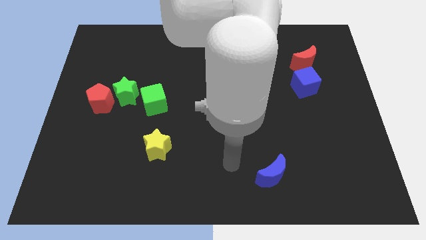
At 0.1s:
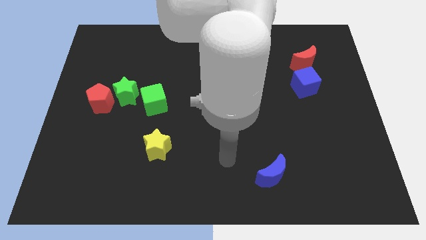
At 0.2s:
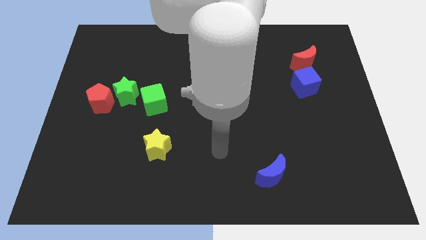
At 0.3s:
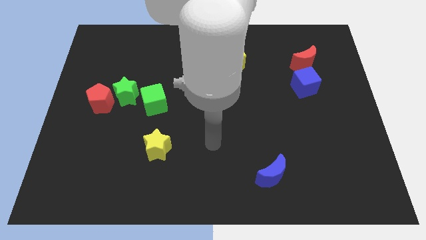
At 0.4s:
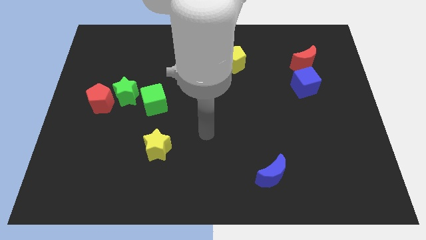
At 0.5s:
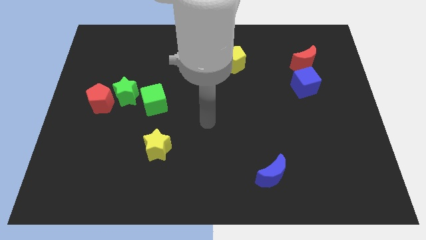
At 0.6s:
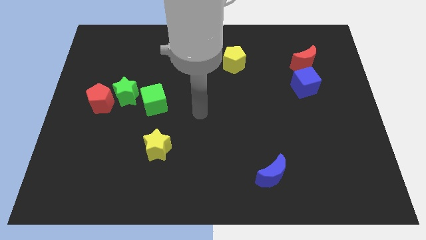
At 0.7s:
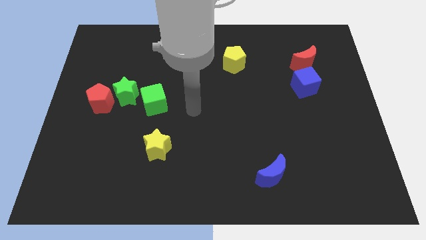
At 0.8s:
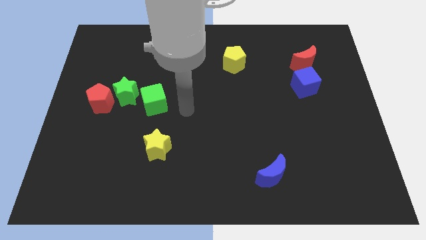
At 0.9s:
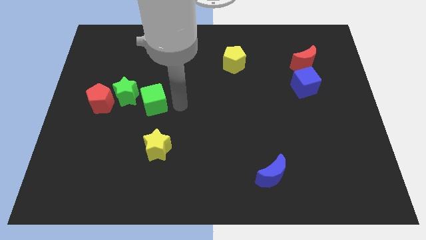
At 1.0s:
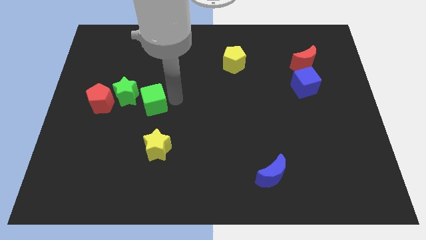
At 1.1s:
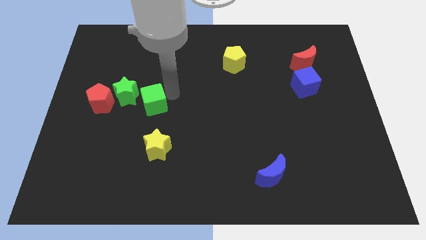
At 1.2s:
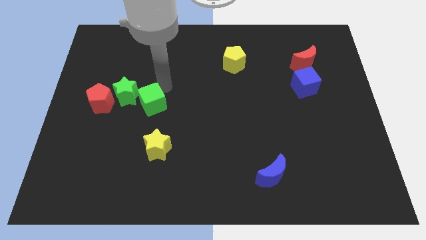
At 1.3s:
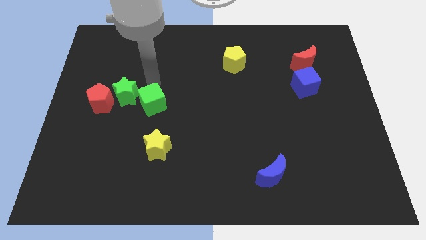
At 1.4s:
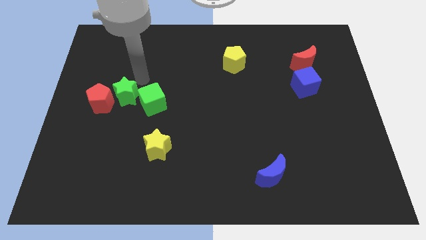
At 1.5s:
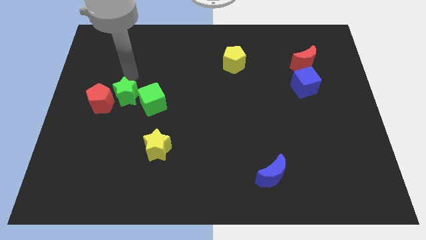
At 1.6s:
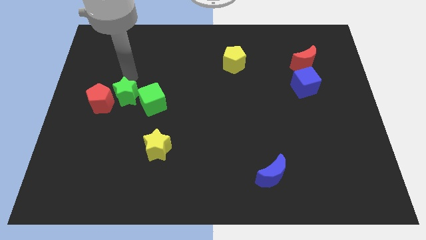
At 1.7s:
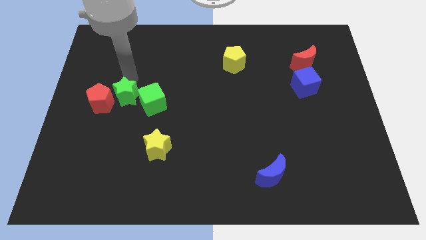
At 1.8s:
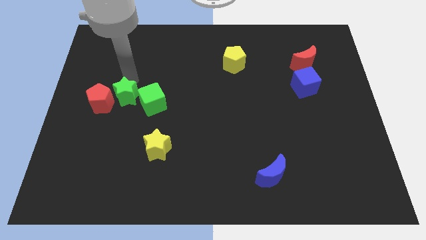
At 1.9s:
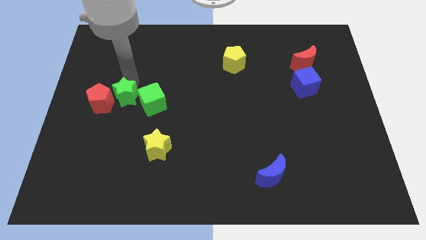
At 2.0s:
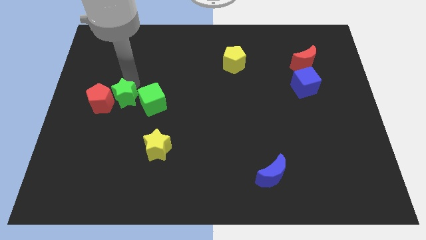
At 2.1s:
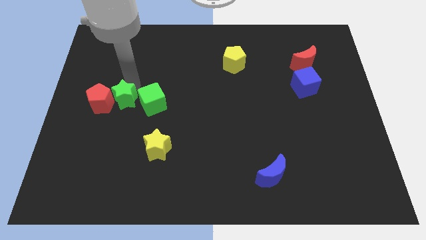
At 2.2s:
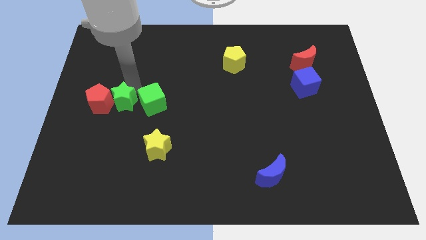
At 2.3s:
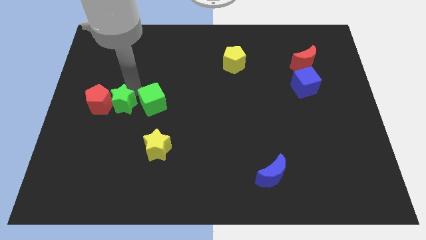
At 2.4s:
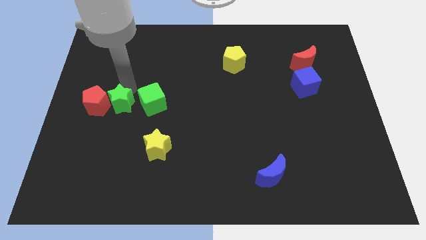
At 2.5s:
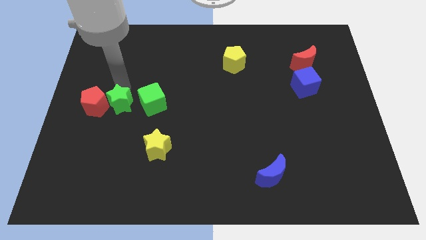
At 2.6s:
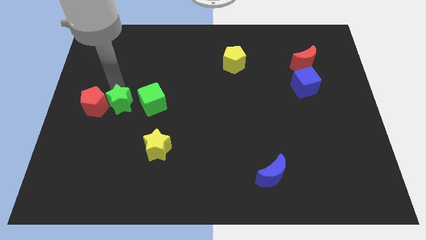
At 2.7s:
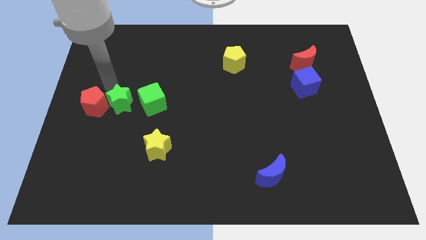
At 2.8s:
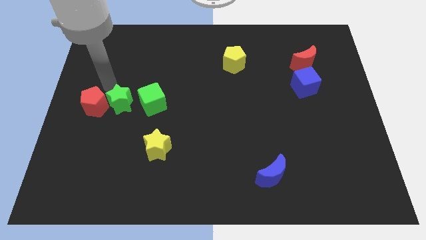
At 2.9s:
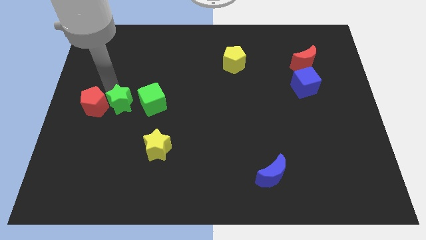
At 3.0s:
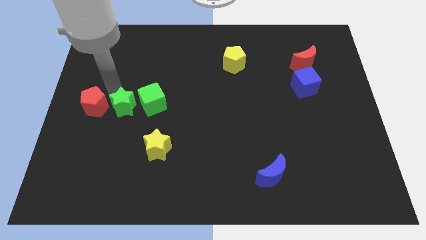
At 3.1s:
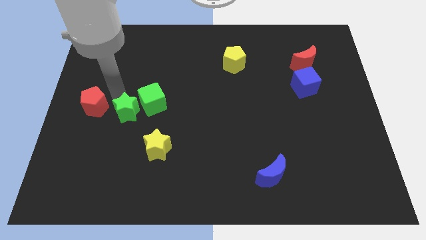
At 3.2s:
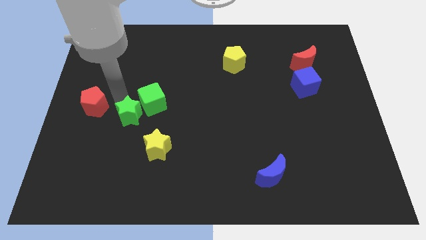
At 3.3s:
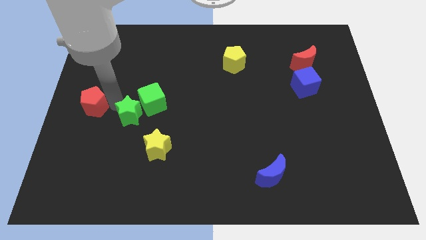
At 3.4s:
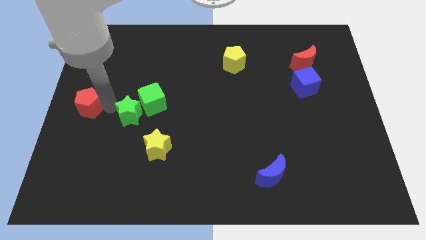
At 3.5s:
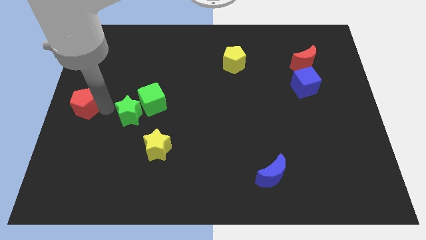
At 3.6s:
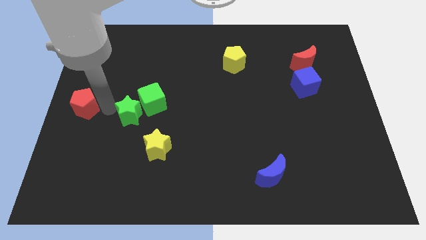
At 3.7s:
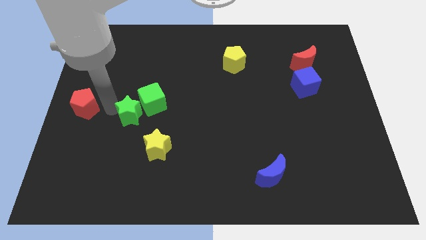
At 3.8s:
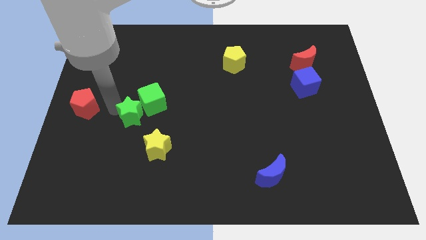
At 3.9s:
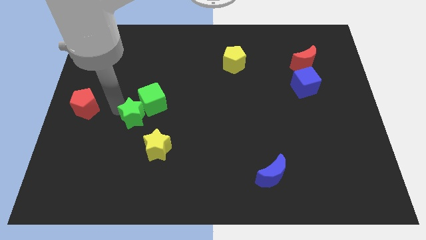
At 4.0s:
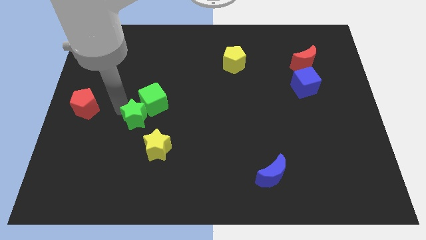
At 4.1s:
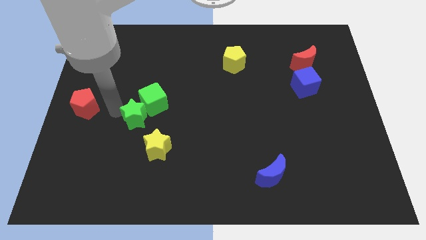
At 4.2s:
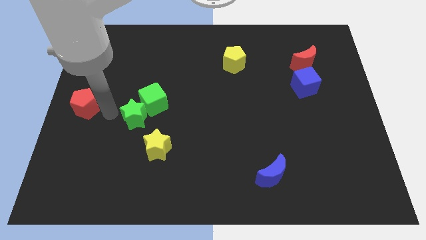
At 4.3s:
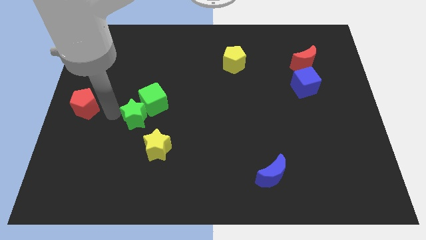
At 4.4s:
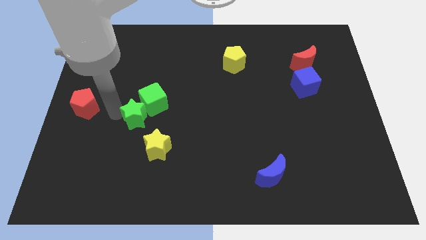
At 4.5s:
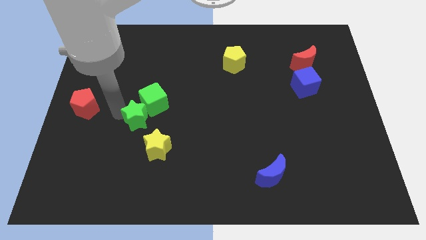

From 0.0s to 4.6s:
push the green star slightly downwards and to the right

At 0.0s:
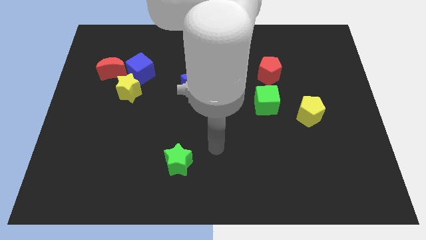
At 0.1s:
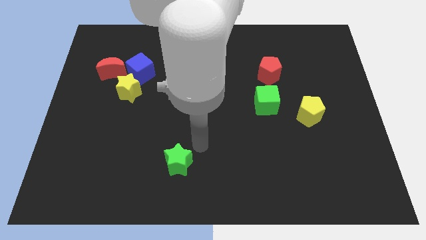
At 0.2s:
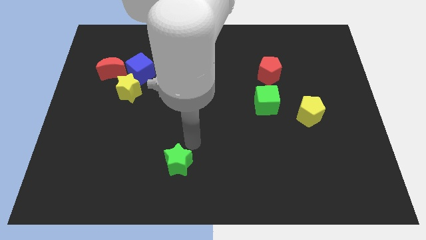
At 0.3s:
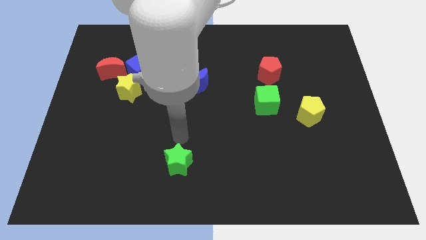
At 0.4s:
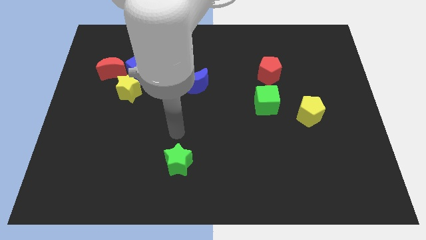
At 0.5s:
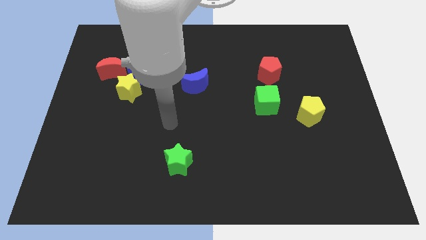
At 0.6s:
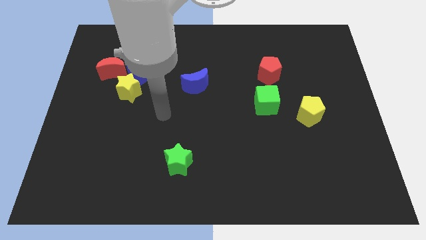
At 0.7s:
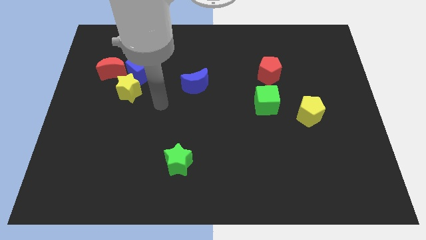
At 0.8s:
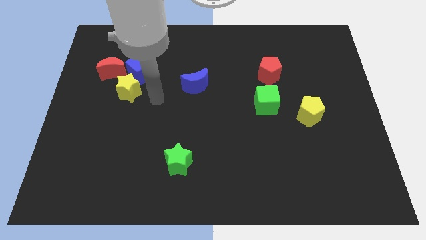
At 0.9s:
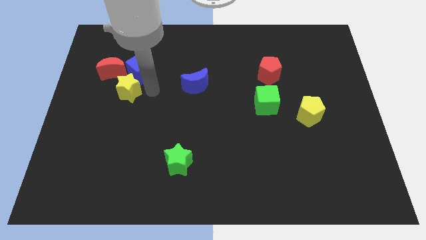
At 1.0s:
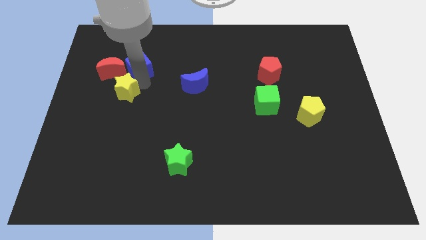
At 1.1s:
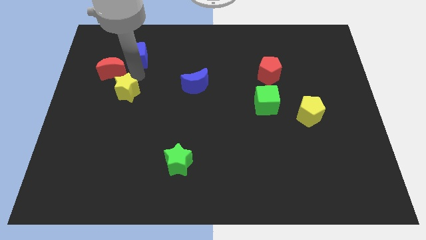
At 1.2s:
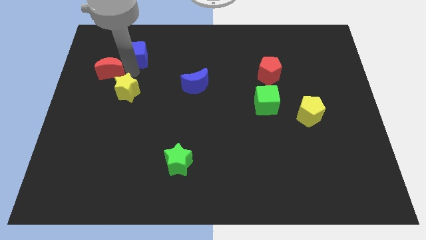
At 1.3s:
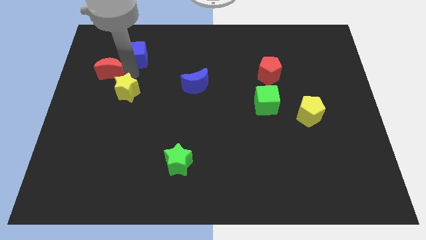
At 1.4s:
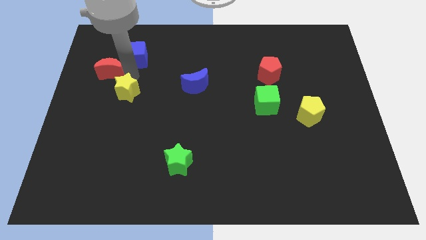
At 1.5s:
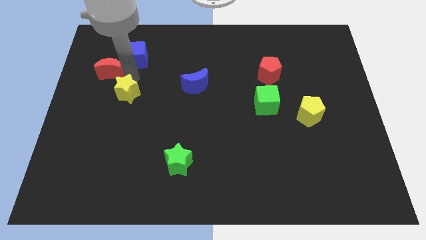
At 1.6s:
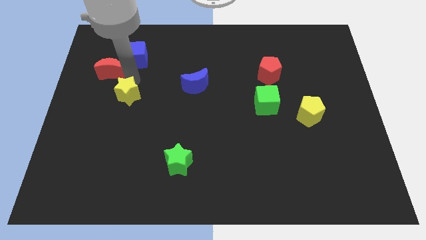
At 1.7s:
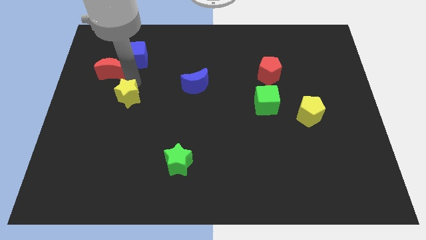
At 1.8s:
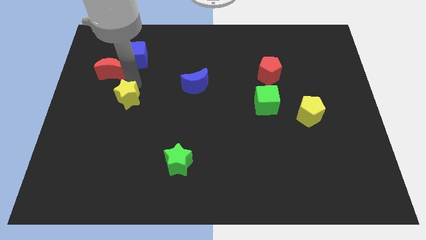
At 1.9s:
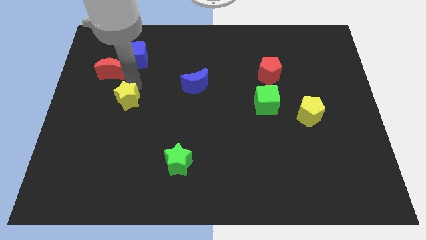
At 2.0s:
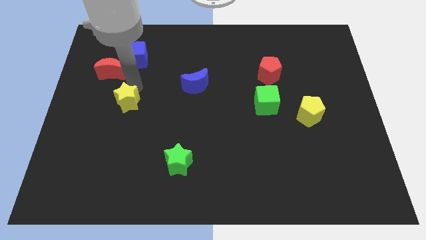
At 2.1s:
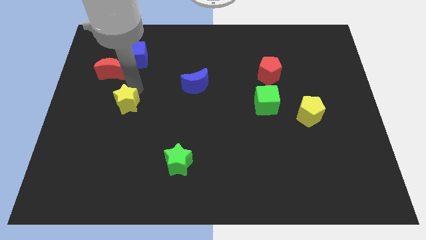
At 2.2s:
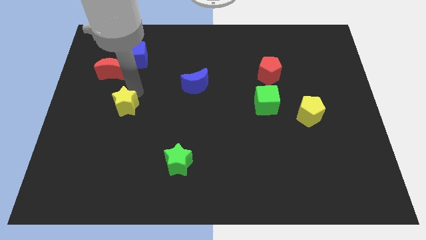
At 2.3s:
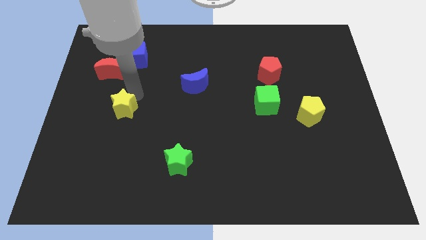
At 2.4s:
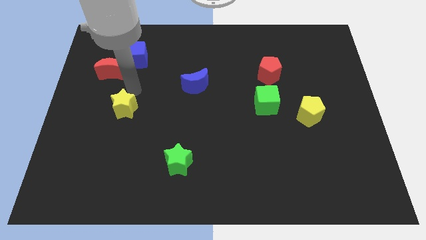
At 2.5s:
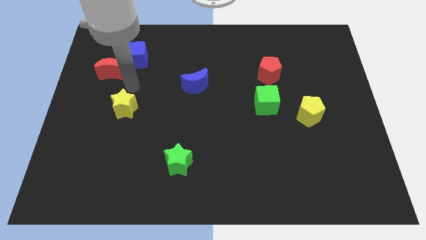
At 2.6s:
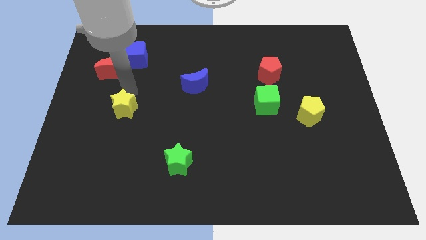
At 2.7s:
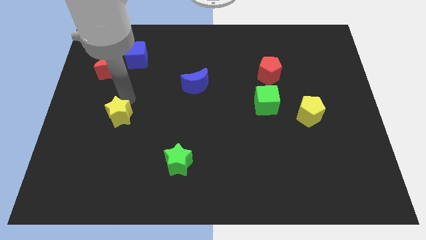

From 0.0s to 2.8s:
slide the yellow star down somewhat

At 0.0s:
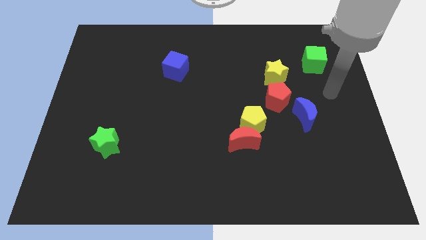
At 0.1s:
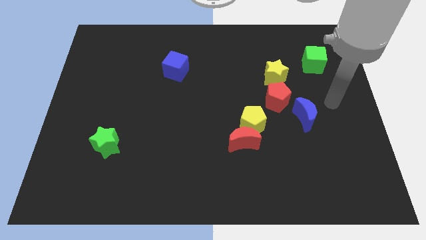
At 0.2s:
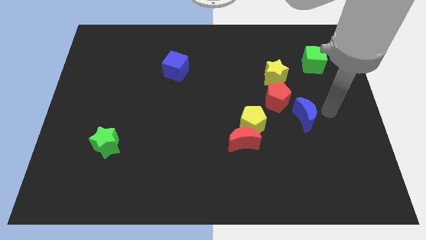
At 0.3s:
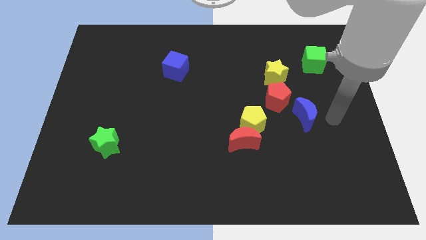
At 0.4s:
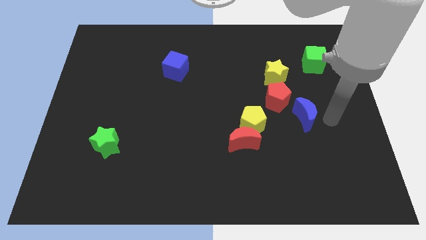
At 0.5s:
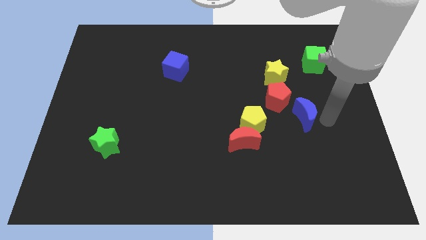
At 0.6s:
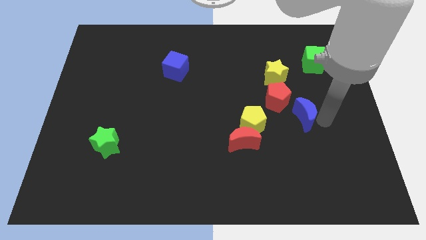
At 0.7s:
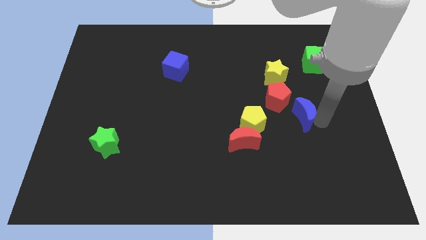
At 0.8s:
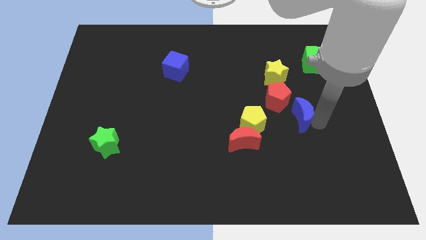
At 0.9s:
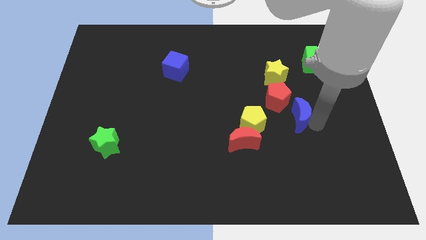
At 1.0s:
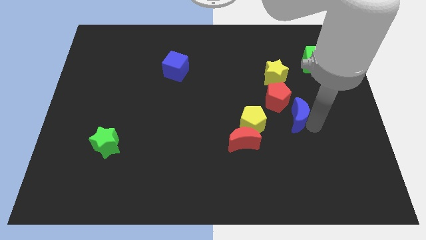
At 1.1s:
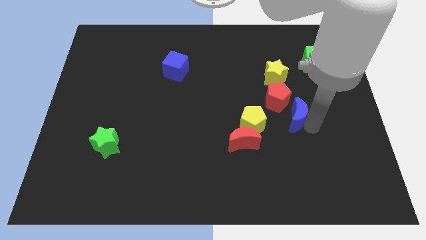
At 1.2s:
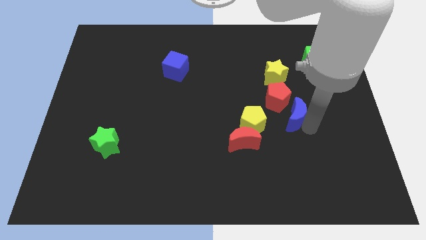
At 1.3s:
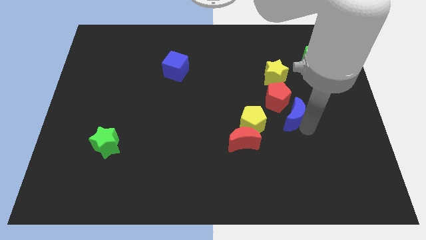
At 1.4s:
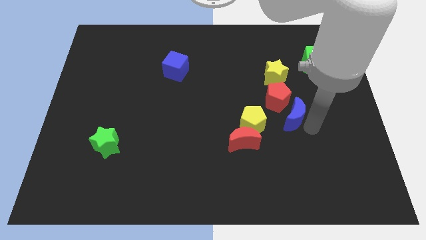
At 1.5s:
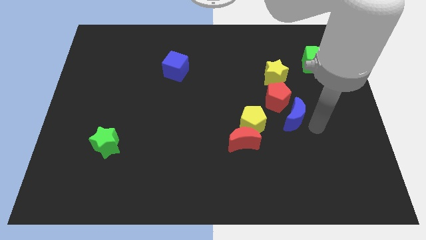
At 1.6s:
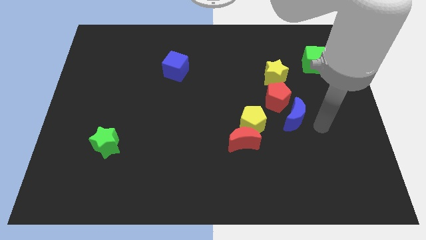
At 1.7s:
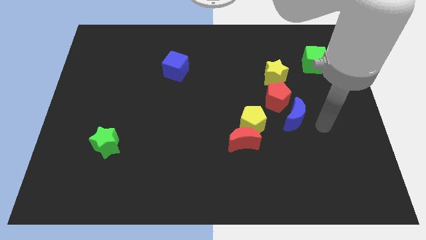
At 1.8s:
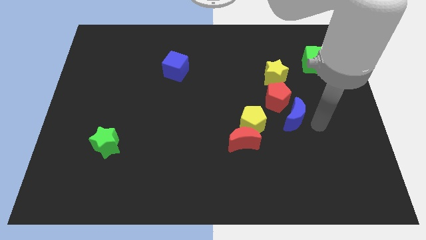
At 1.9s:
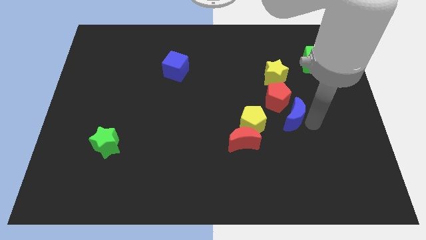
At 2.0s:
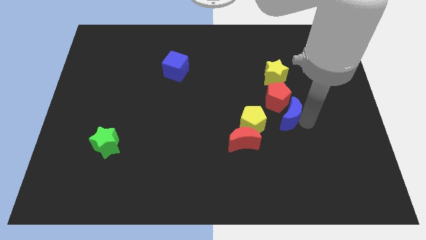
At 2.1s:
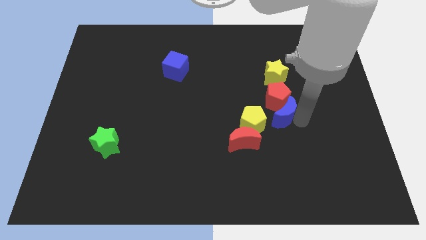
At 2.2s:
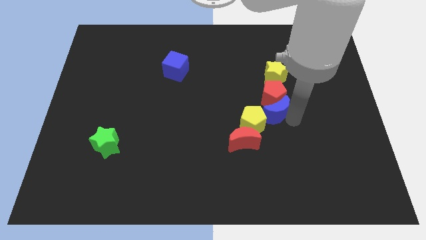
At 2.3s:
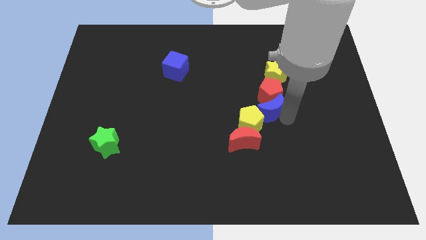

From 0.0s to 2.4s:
slightly slide the blue moon left
